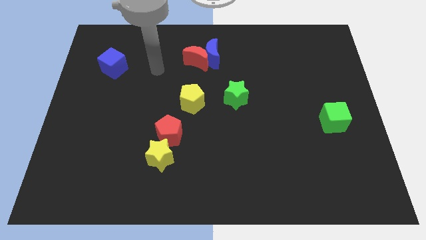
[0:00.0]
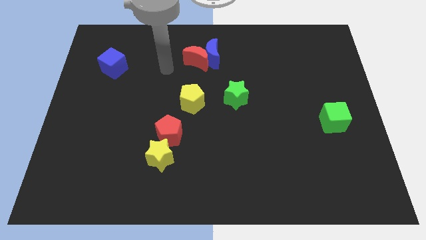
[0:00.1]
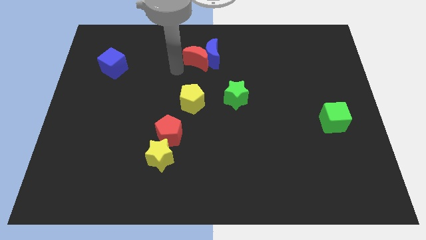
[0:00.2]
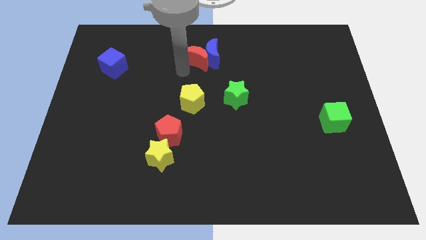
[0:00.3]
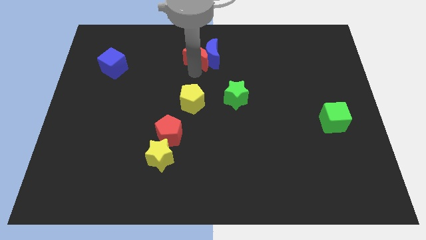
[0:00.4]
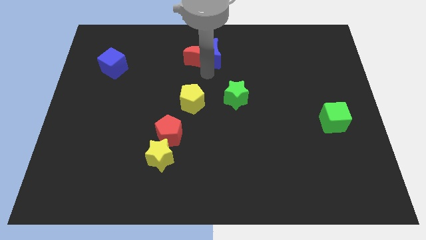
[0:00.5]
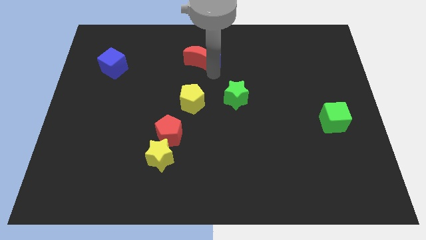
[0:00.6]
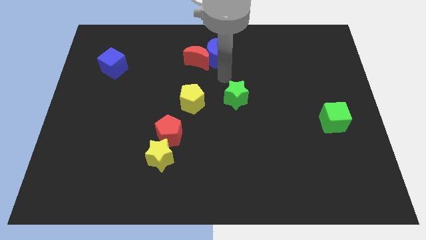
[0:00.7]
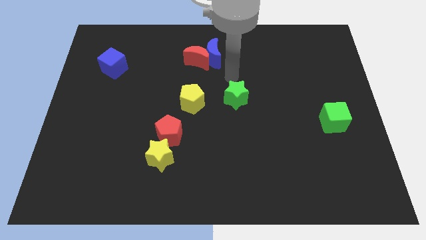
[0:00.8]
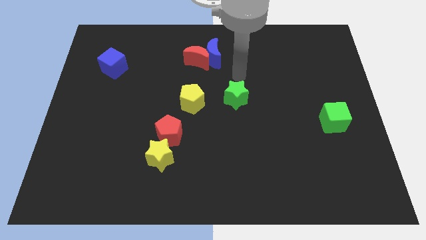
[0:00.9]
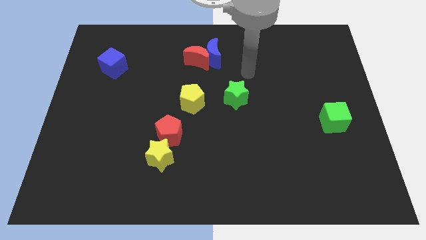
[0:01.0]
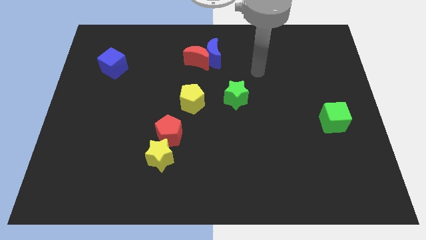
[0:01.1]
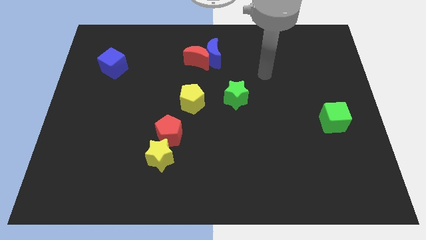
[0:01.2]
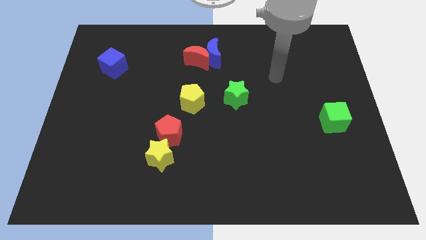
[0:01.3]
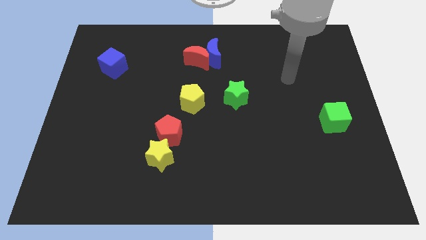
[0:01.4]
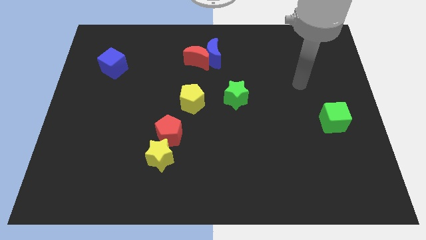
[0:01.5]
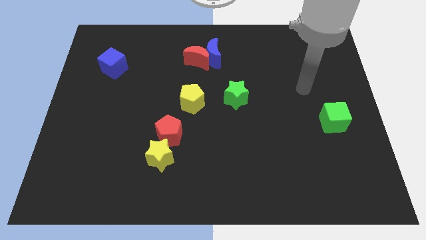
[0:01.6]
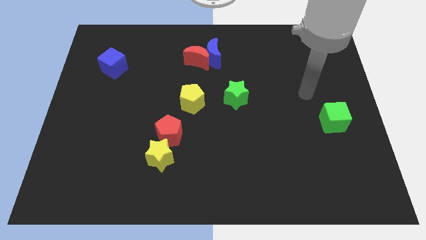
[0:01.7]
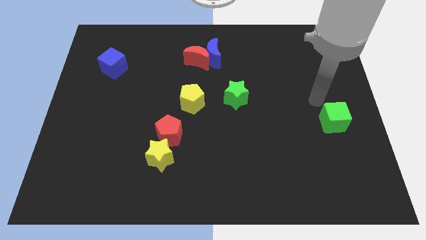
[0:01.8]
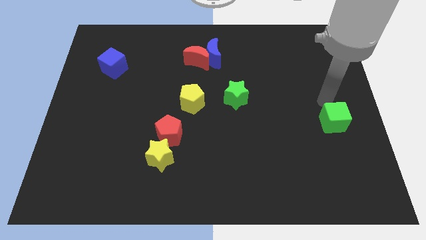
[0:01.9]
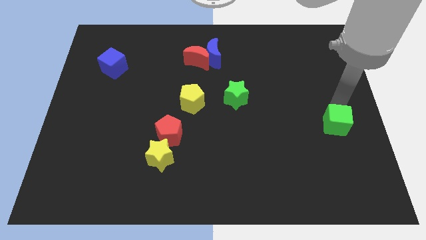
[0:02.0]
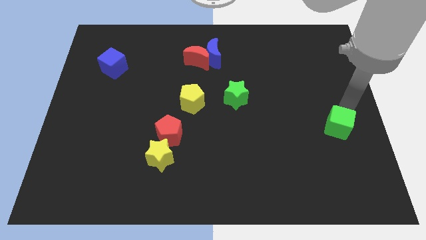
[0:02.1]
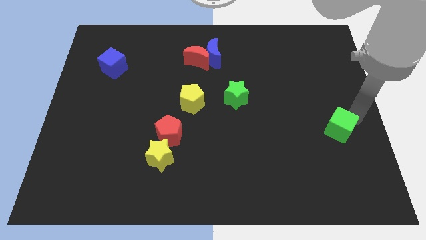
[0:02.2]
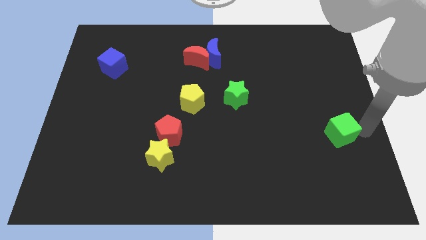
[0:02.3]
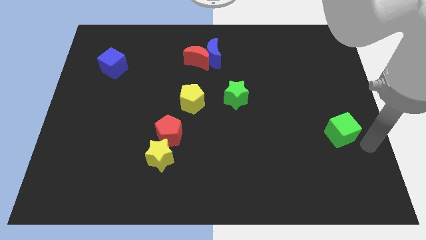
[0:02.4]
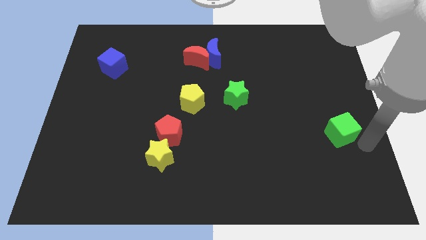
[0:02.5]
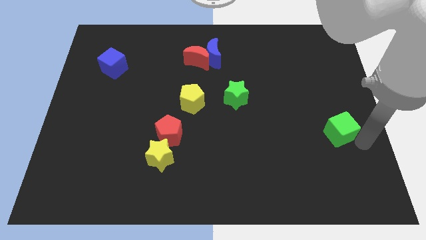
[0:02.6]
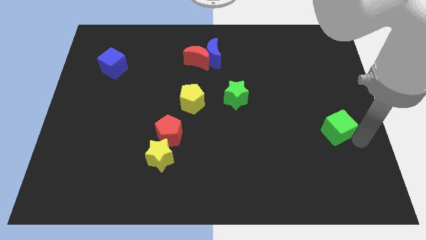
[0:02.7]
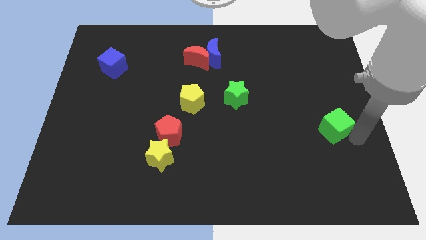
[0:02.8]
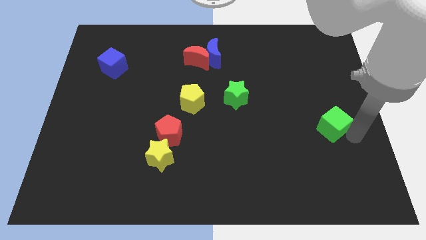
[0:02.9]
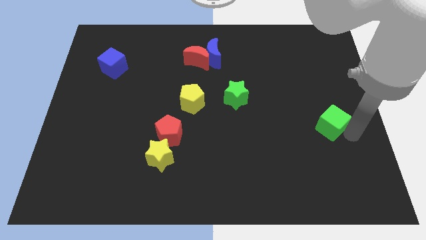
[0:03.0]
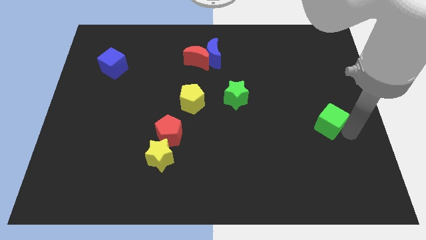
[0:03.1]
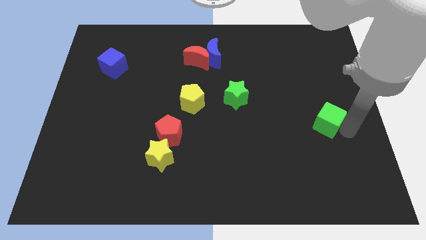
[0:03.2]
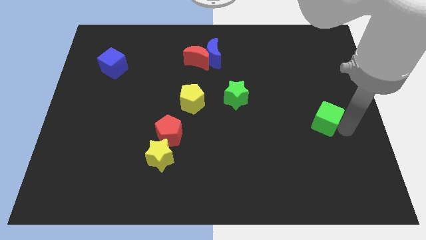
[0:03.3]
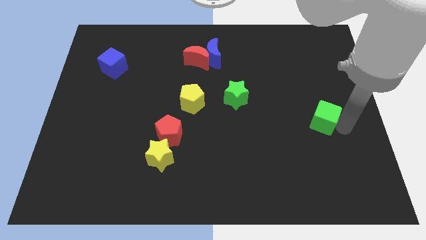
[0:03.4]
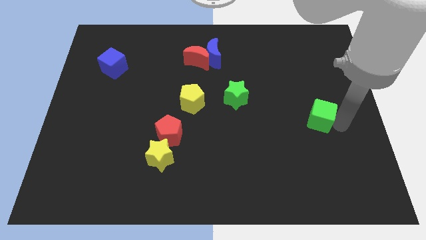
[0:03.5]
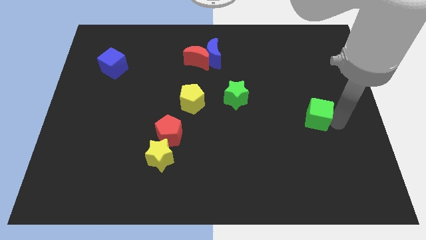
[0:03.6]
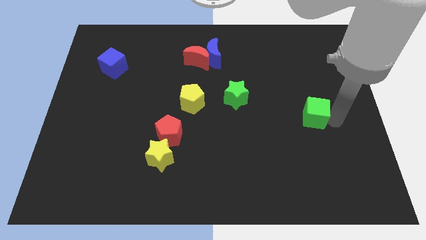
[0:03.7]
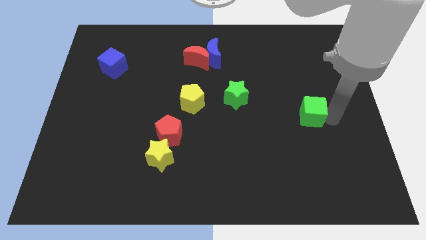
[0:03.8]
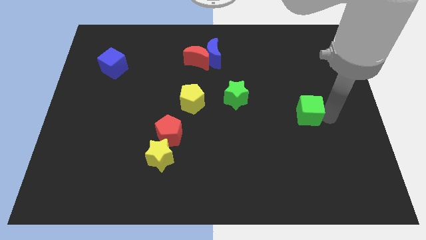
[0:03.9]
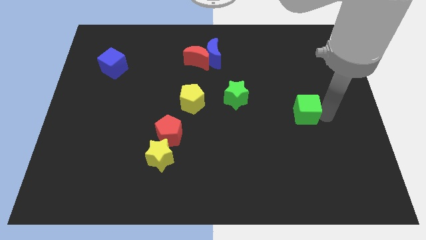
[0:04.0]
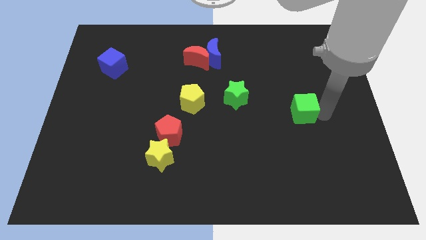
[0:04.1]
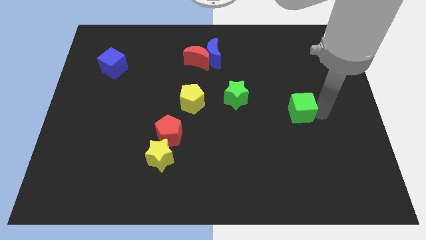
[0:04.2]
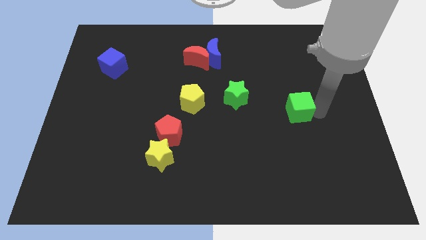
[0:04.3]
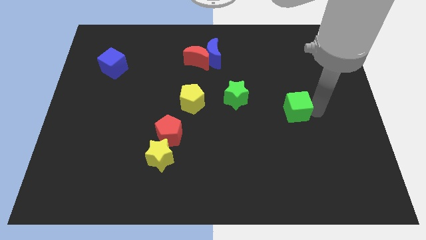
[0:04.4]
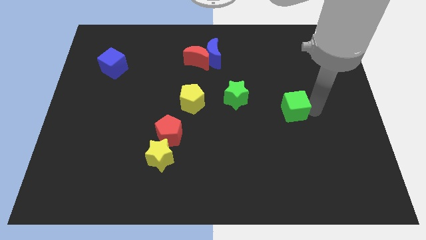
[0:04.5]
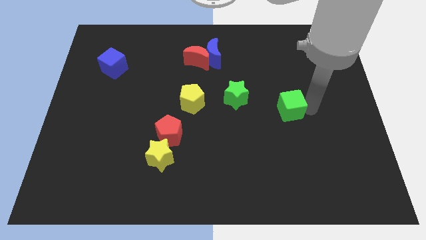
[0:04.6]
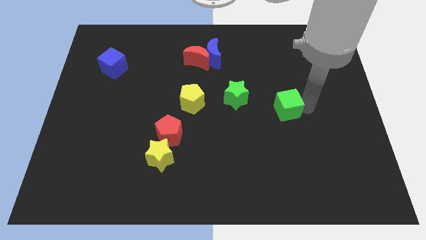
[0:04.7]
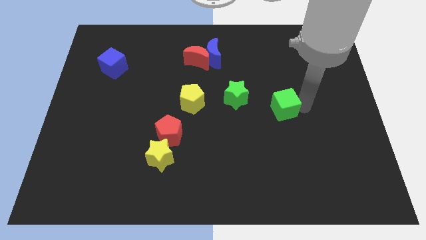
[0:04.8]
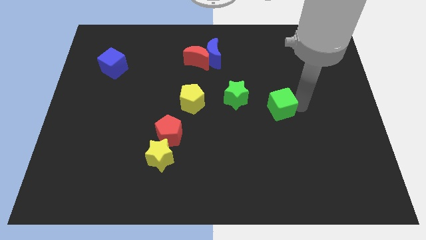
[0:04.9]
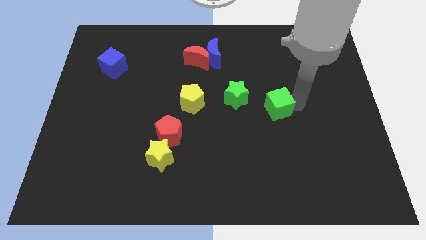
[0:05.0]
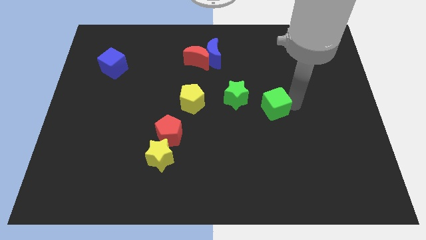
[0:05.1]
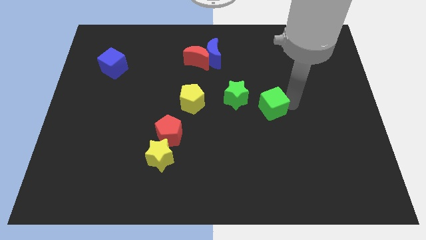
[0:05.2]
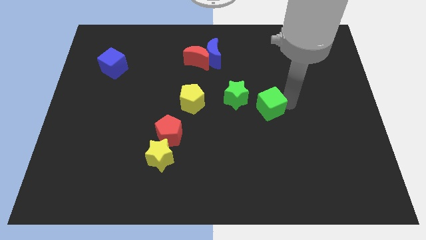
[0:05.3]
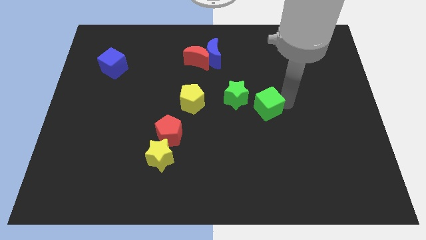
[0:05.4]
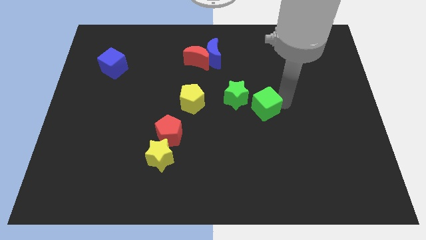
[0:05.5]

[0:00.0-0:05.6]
slide the green cube to the middle

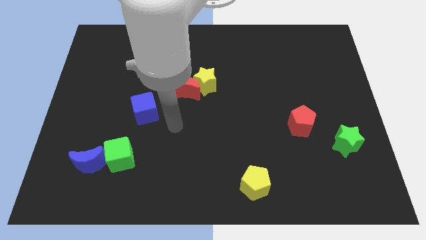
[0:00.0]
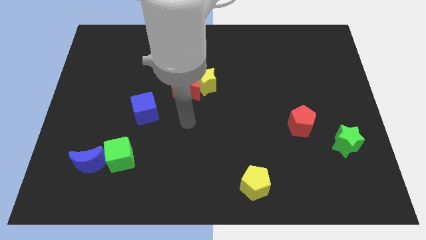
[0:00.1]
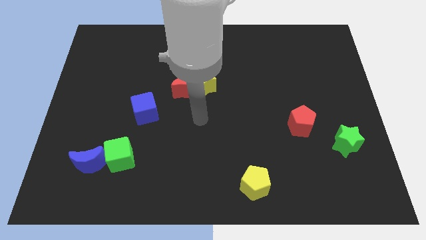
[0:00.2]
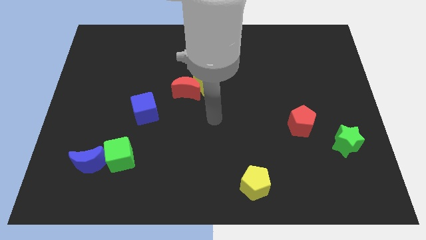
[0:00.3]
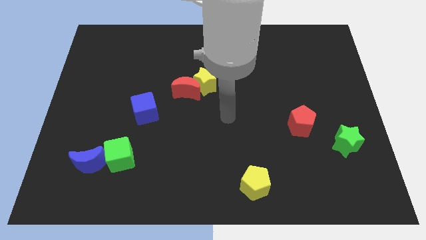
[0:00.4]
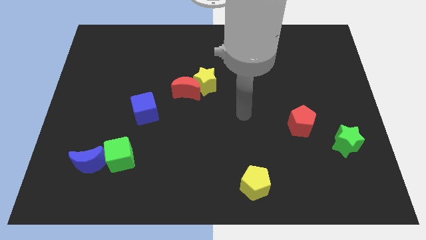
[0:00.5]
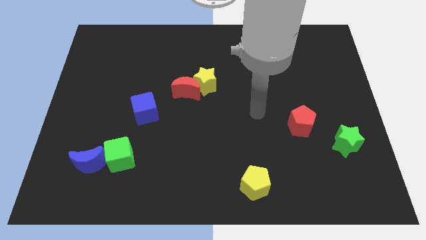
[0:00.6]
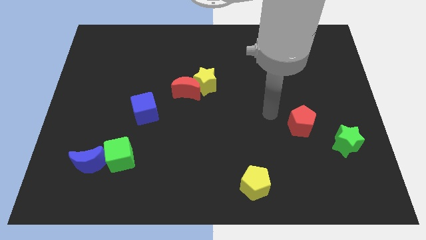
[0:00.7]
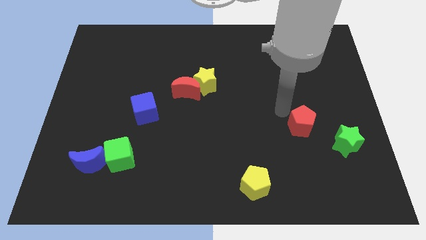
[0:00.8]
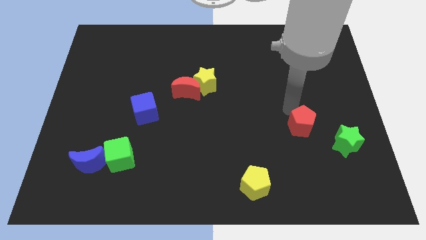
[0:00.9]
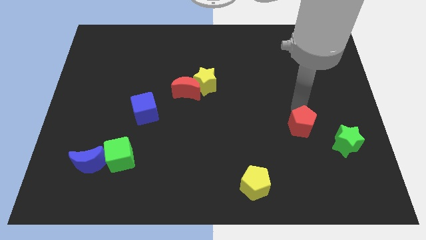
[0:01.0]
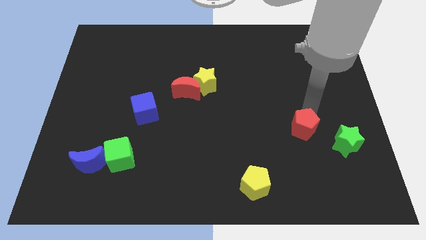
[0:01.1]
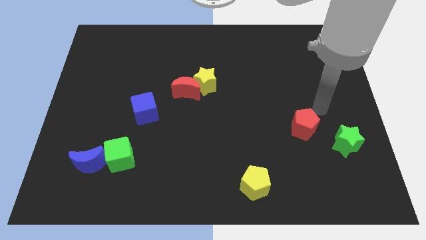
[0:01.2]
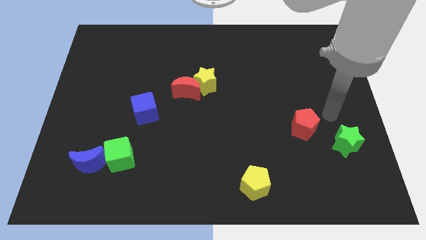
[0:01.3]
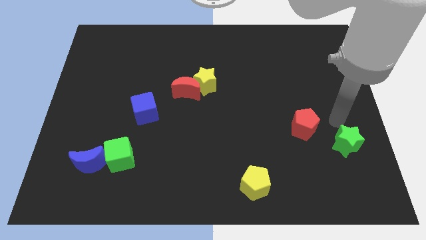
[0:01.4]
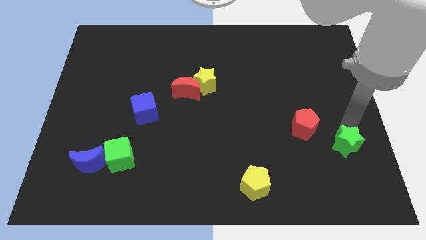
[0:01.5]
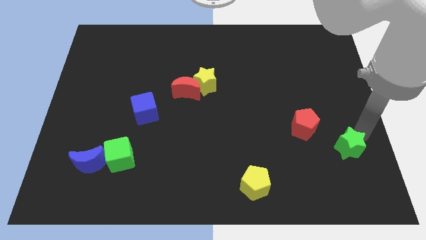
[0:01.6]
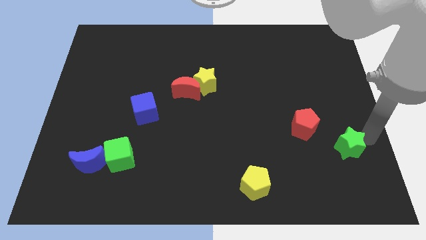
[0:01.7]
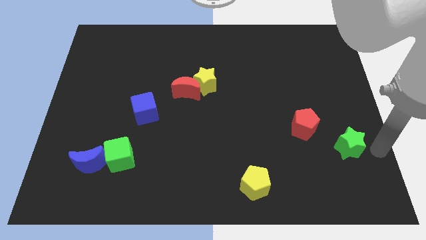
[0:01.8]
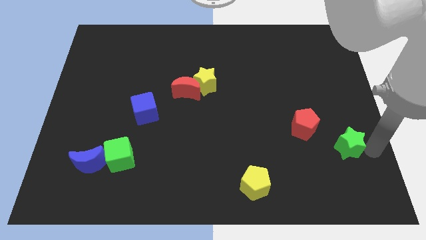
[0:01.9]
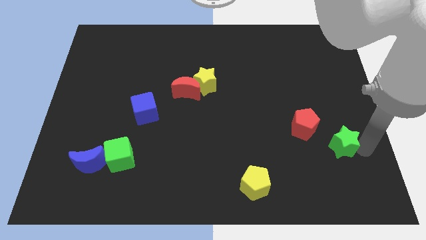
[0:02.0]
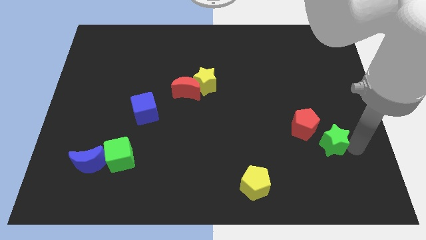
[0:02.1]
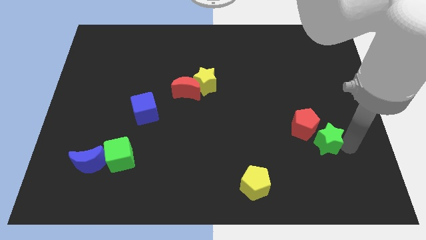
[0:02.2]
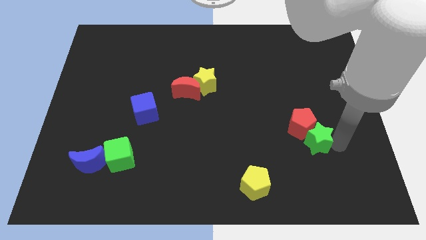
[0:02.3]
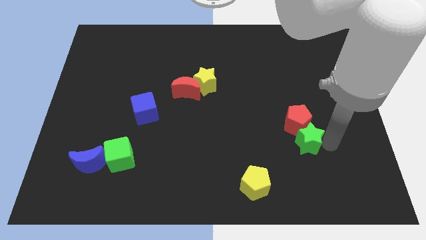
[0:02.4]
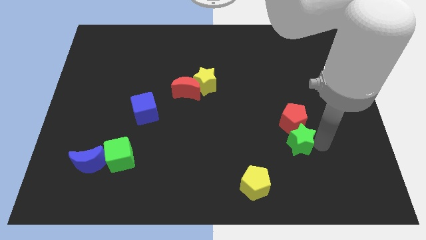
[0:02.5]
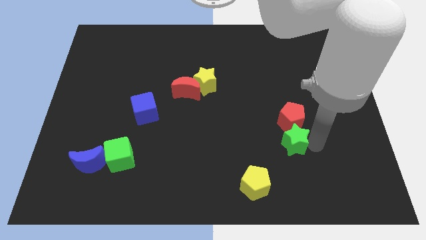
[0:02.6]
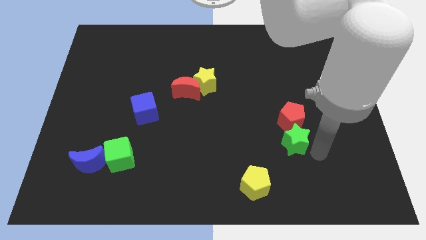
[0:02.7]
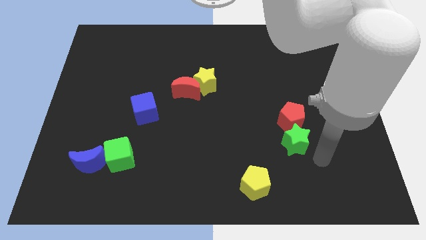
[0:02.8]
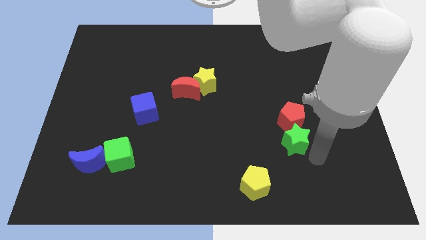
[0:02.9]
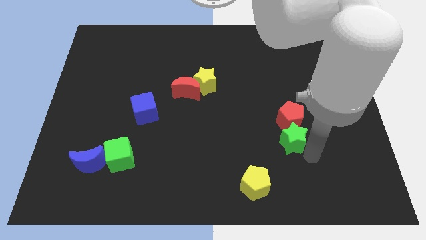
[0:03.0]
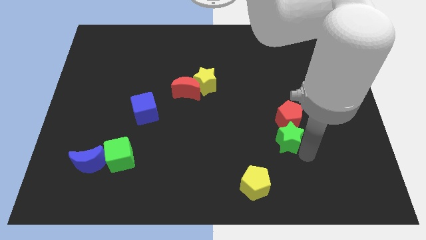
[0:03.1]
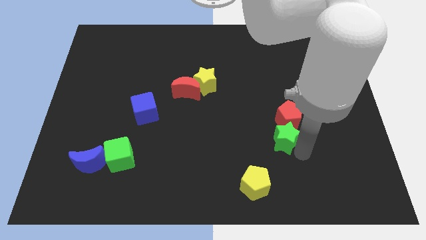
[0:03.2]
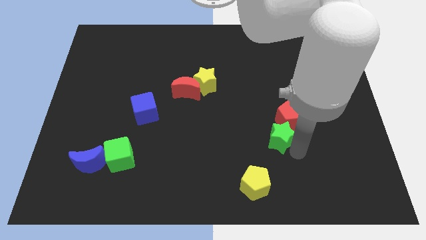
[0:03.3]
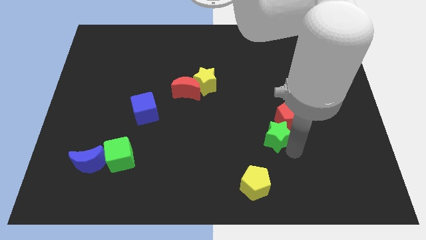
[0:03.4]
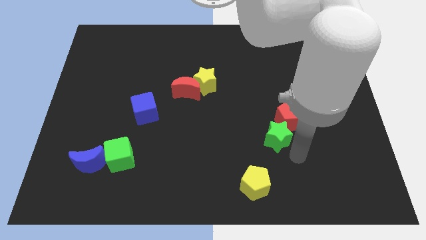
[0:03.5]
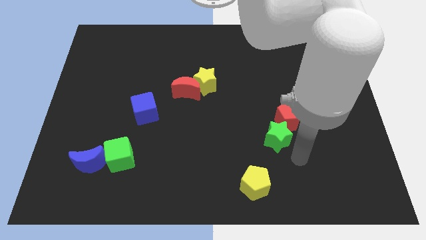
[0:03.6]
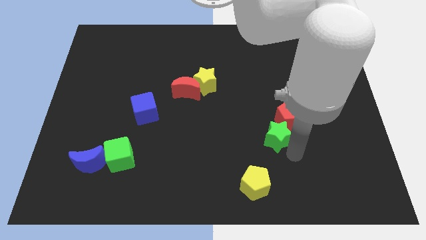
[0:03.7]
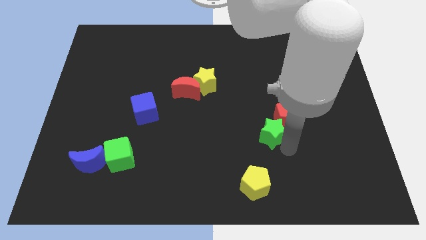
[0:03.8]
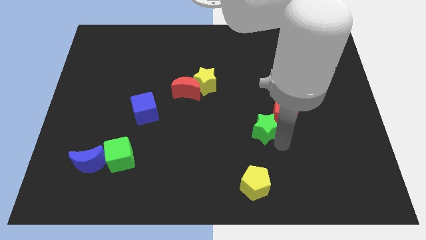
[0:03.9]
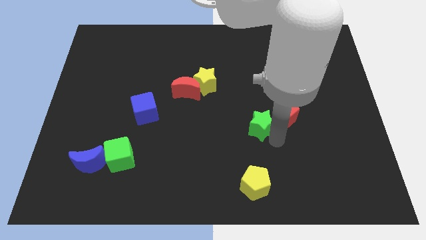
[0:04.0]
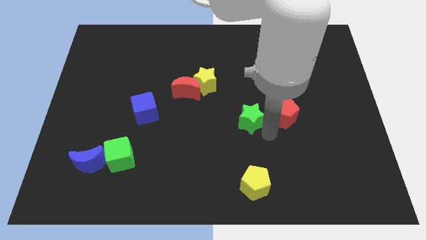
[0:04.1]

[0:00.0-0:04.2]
move the green star to the center of the board
